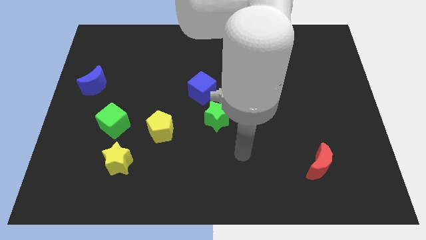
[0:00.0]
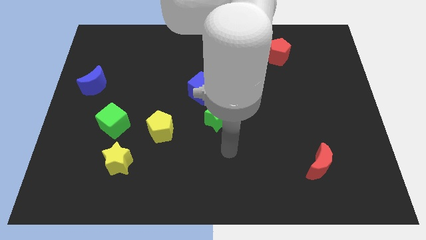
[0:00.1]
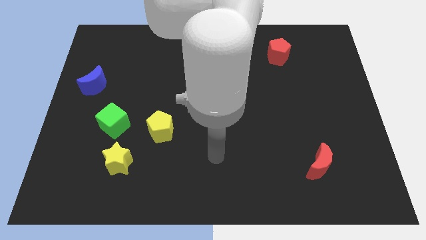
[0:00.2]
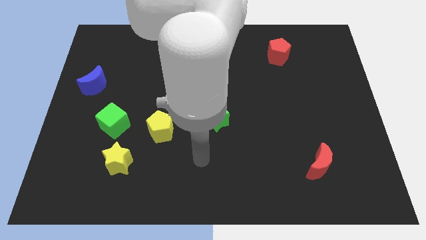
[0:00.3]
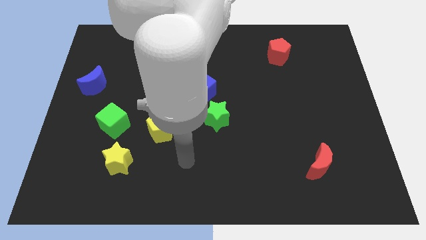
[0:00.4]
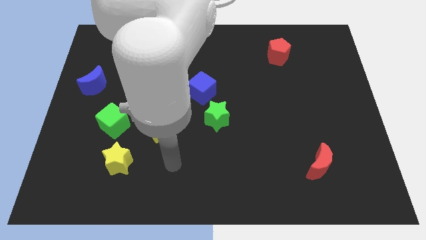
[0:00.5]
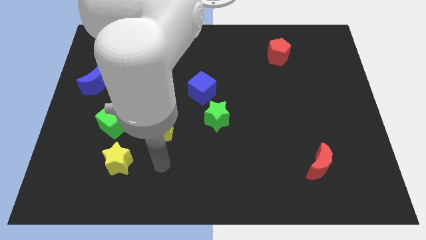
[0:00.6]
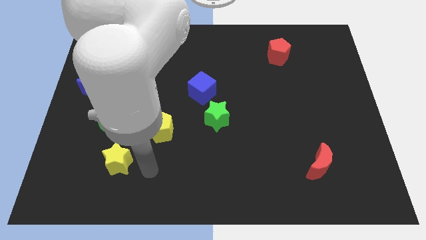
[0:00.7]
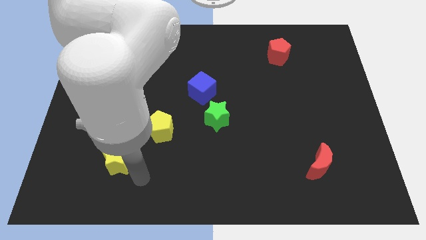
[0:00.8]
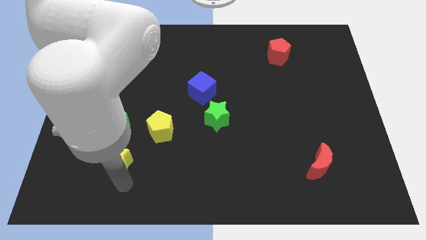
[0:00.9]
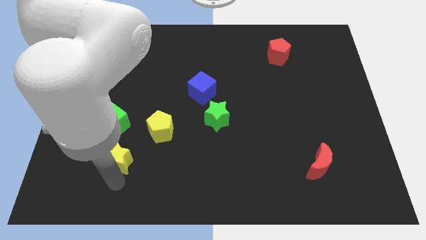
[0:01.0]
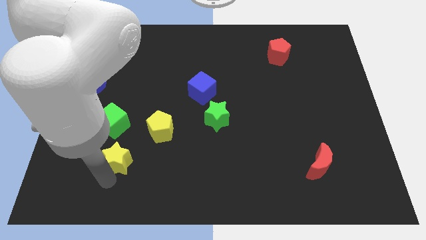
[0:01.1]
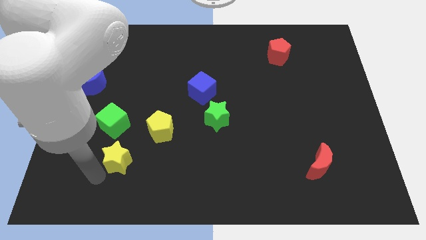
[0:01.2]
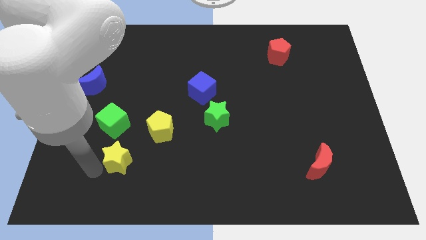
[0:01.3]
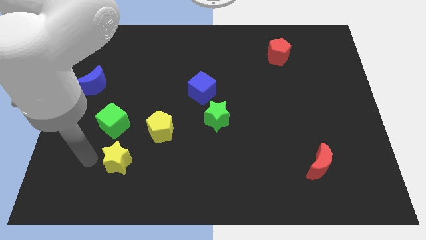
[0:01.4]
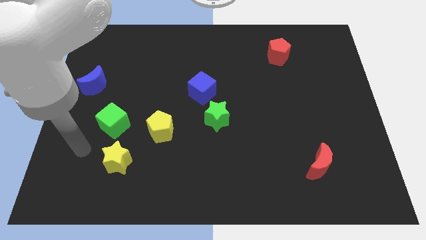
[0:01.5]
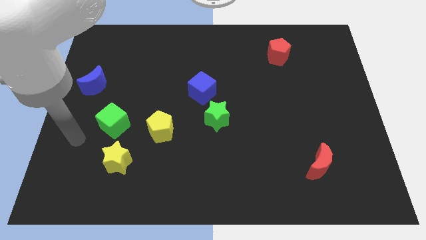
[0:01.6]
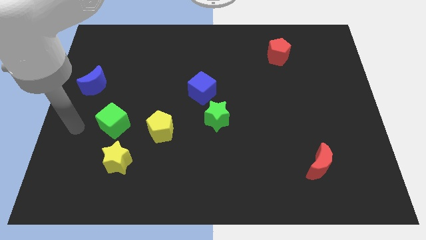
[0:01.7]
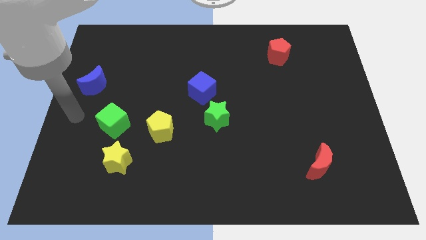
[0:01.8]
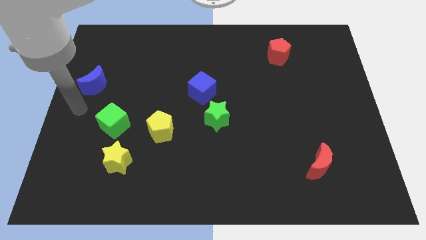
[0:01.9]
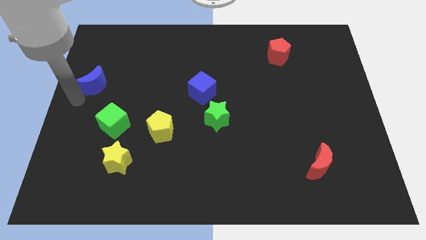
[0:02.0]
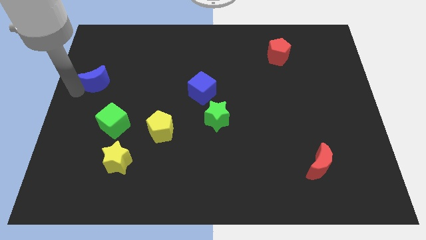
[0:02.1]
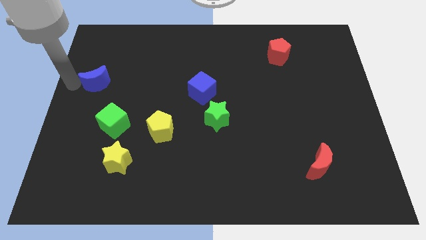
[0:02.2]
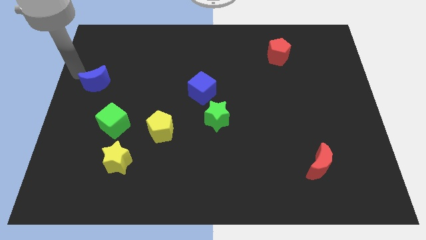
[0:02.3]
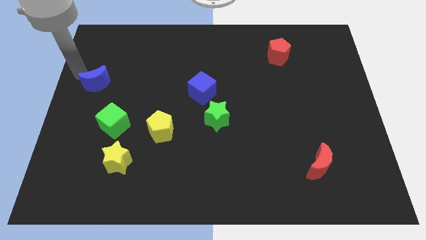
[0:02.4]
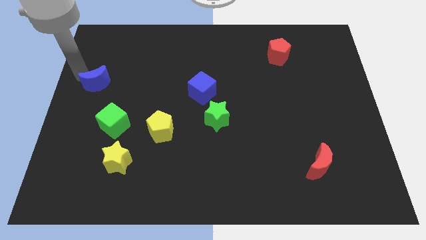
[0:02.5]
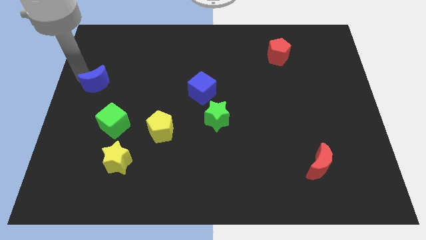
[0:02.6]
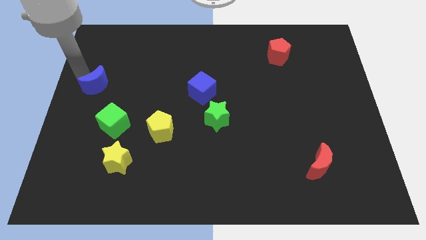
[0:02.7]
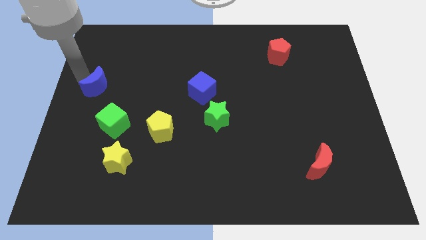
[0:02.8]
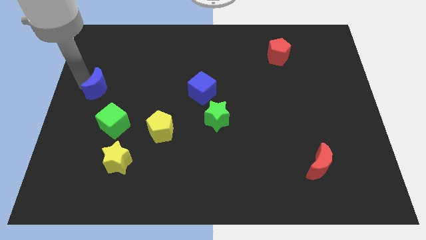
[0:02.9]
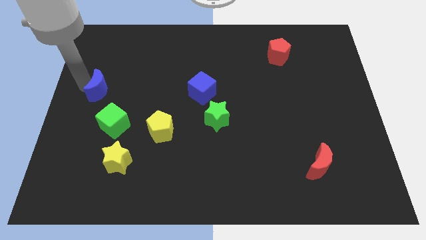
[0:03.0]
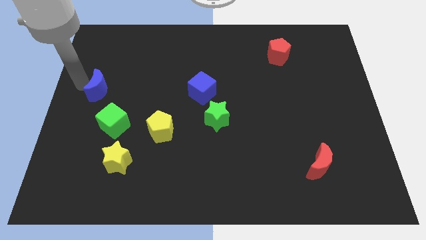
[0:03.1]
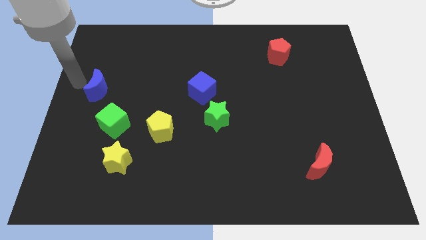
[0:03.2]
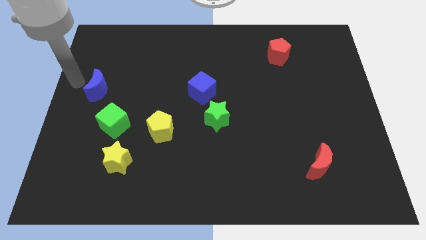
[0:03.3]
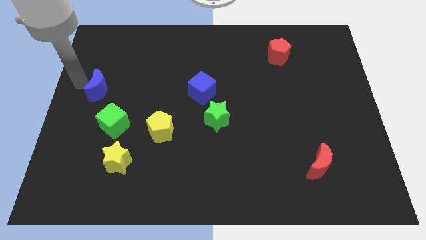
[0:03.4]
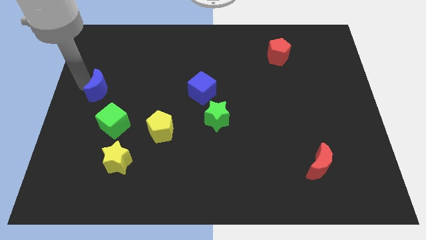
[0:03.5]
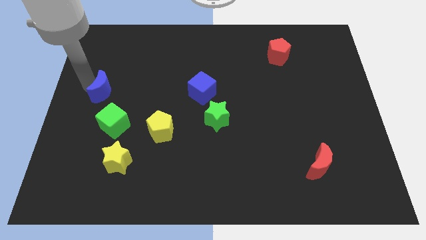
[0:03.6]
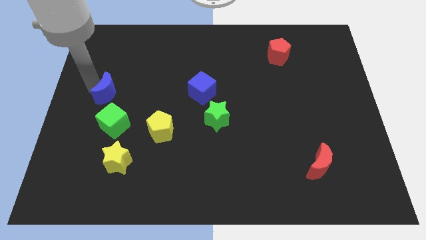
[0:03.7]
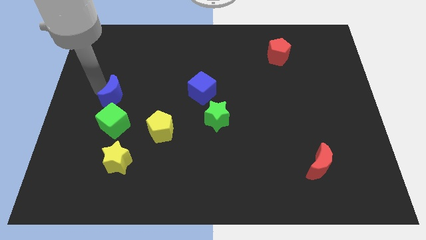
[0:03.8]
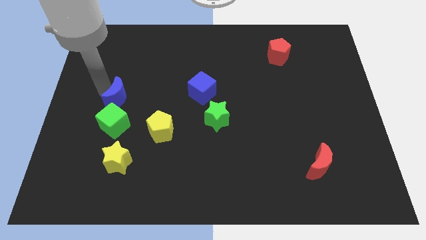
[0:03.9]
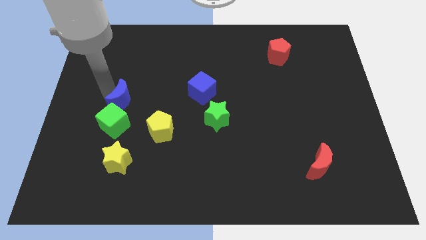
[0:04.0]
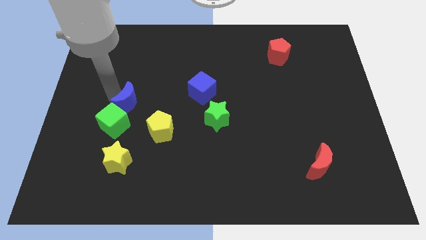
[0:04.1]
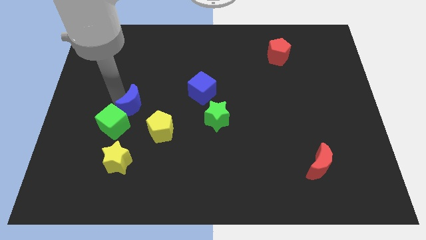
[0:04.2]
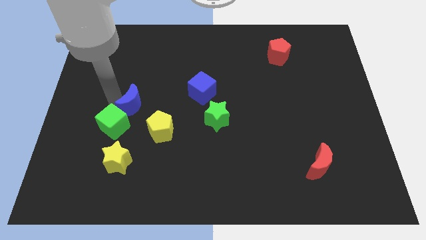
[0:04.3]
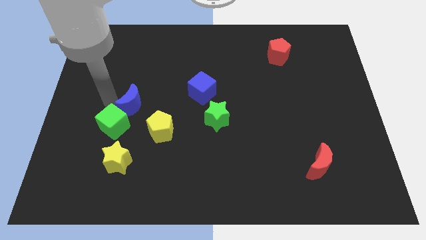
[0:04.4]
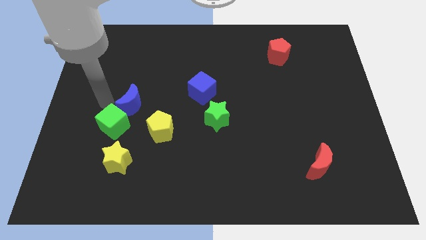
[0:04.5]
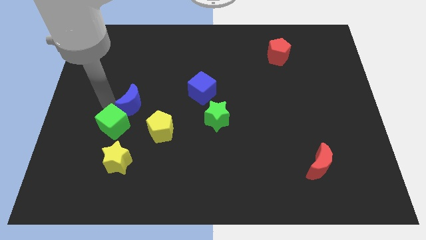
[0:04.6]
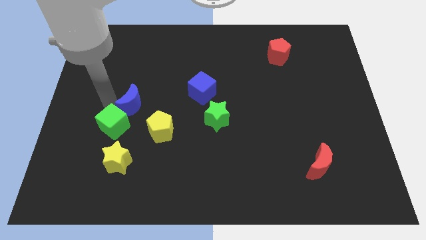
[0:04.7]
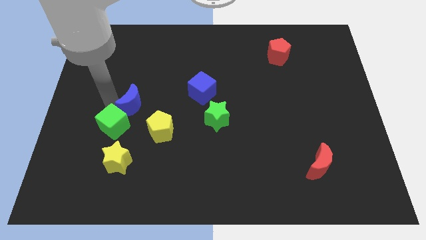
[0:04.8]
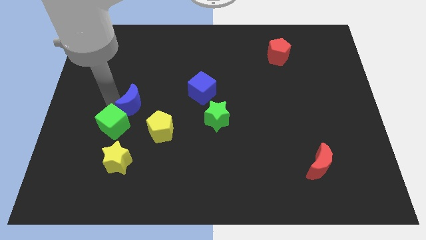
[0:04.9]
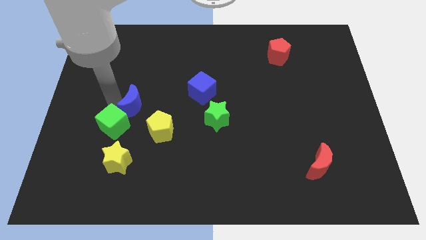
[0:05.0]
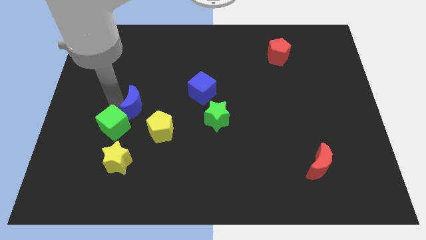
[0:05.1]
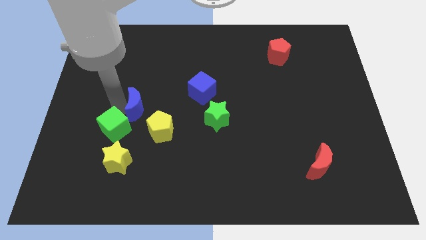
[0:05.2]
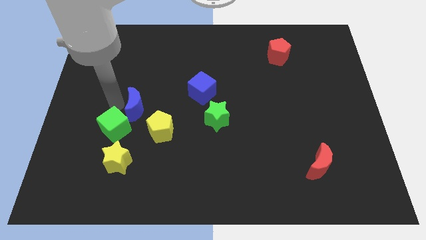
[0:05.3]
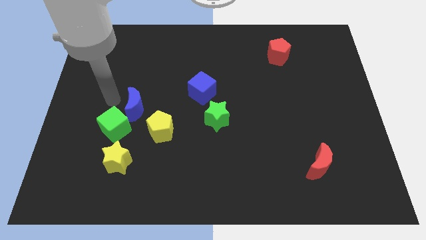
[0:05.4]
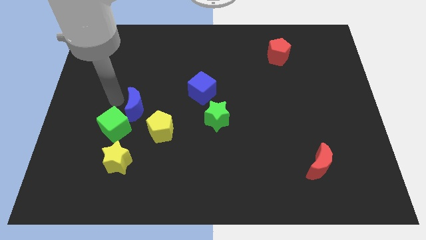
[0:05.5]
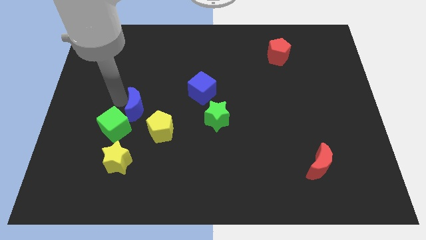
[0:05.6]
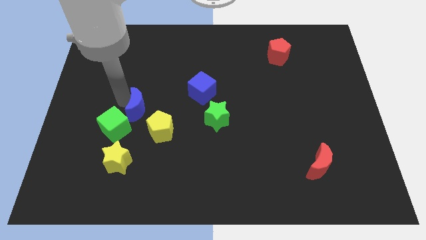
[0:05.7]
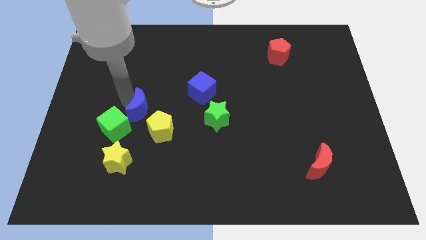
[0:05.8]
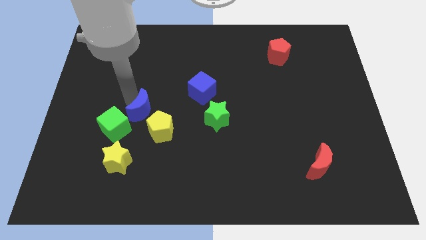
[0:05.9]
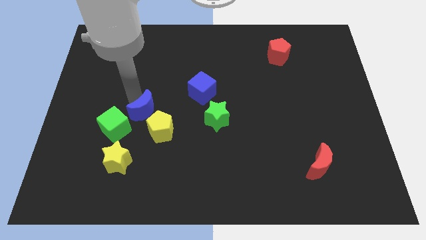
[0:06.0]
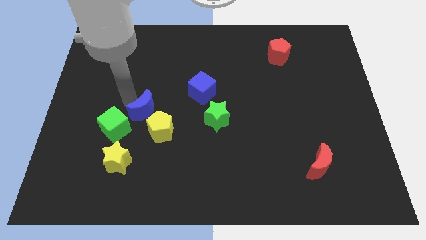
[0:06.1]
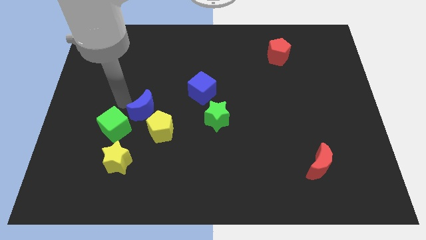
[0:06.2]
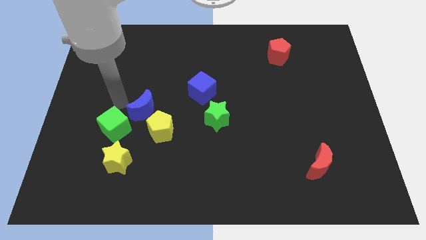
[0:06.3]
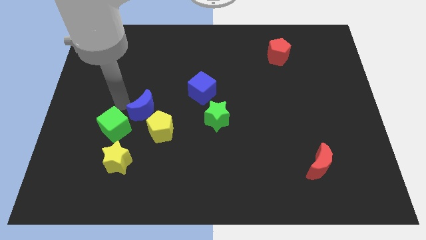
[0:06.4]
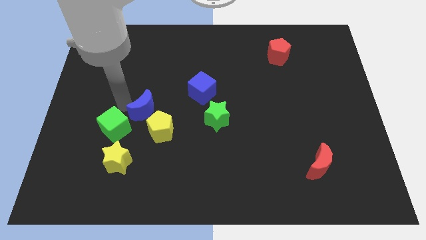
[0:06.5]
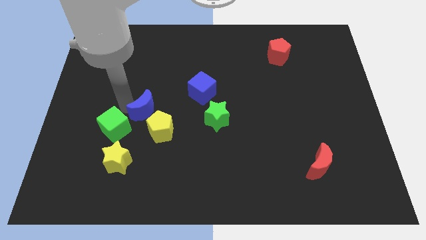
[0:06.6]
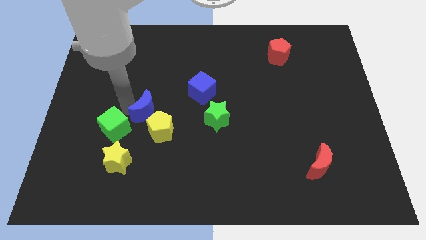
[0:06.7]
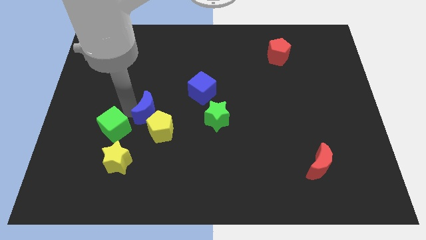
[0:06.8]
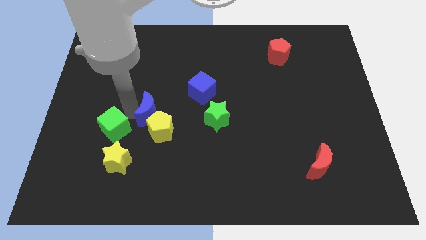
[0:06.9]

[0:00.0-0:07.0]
put the blue moon just left of the green star

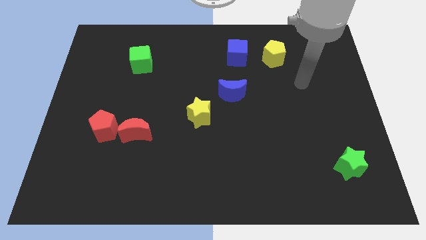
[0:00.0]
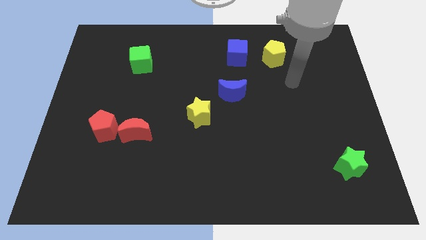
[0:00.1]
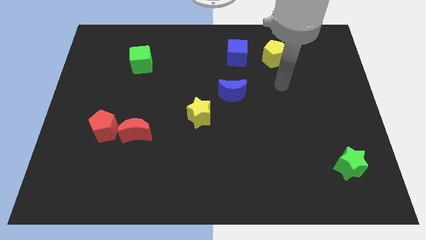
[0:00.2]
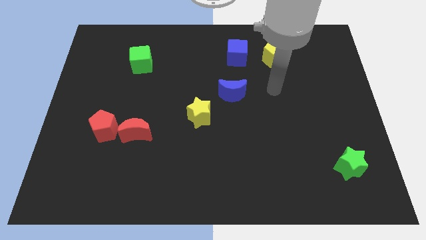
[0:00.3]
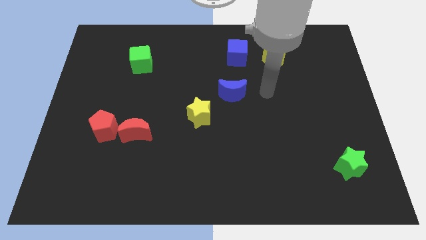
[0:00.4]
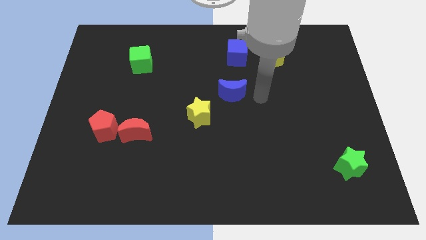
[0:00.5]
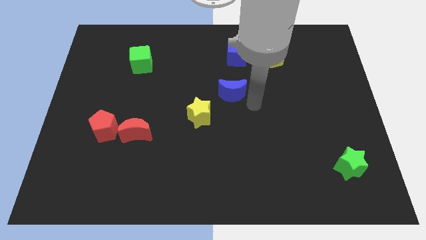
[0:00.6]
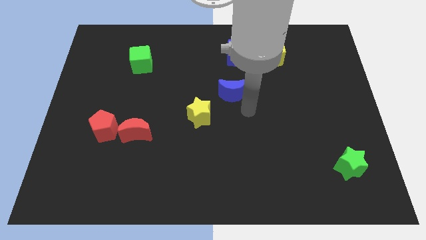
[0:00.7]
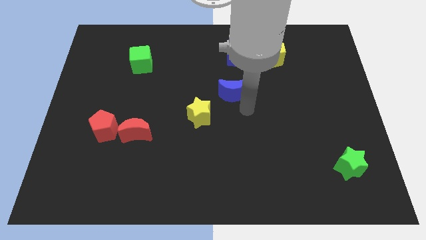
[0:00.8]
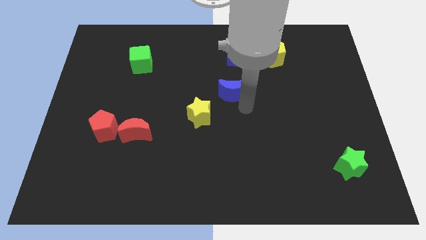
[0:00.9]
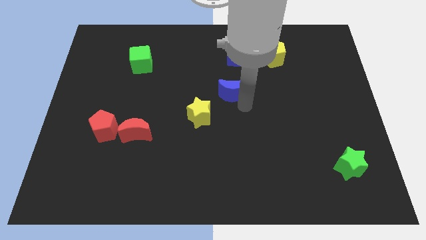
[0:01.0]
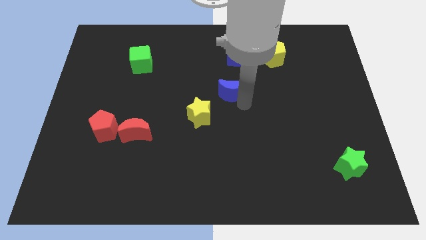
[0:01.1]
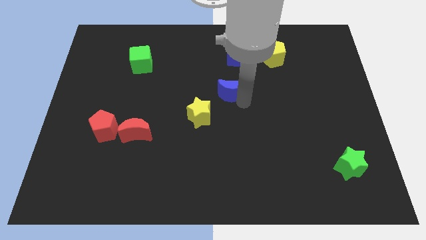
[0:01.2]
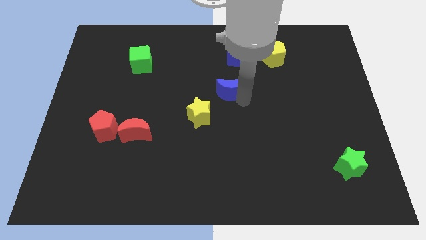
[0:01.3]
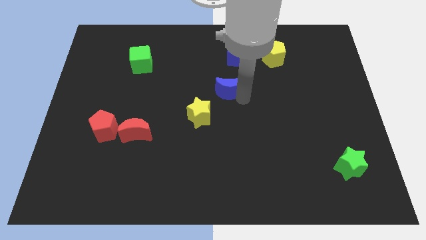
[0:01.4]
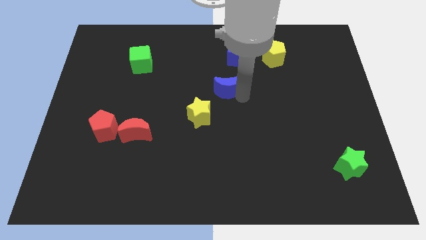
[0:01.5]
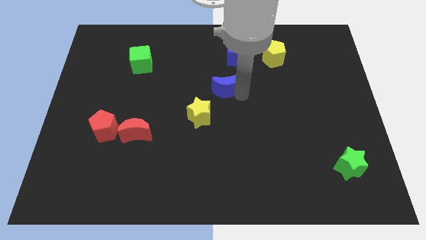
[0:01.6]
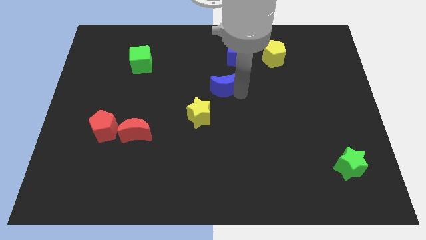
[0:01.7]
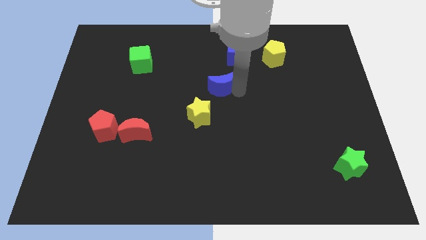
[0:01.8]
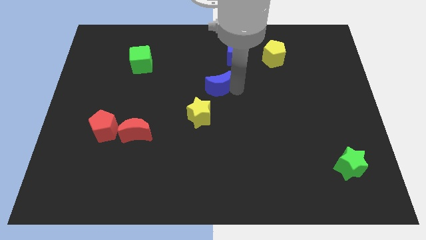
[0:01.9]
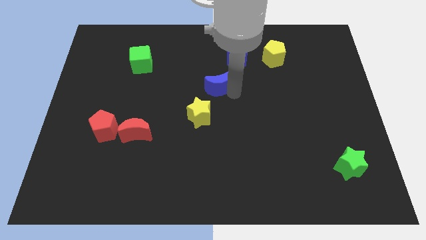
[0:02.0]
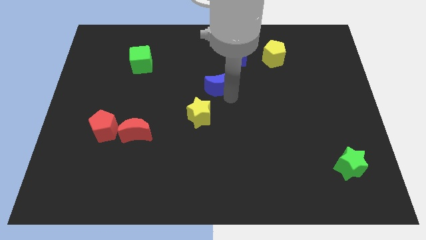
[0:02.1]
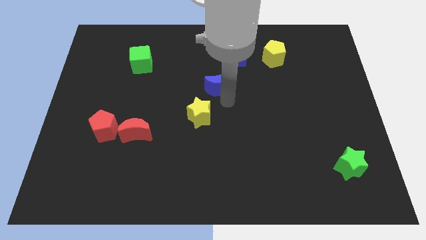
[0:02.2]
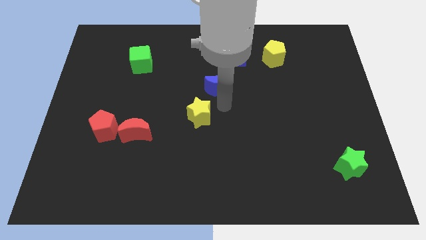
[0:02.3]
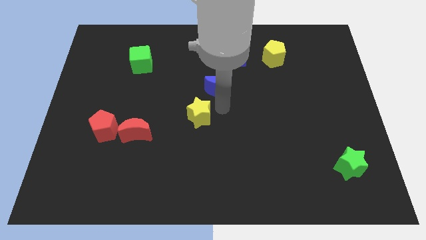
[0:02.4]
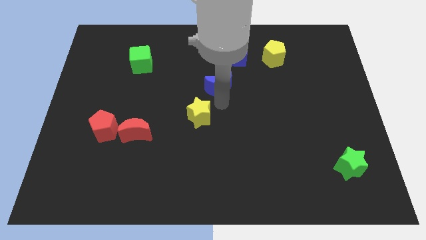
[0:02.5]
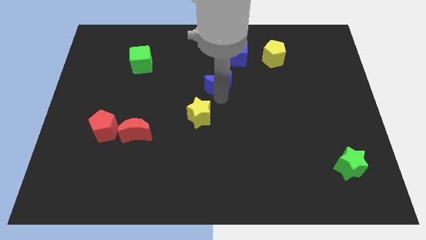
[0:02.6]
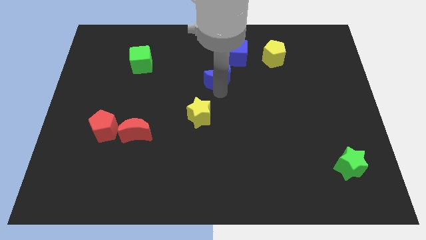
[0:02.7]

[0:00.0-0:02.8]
put the blue moon to the bottom left side of the blue cube
